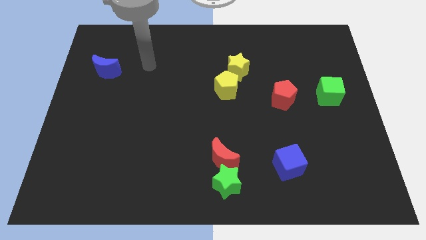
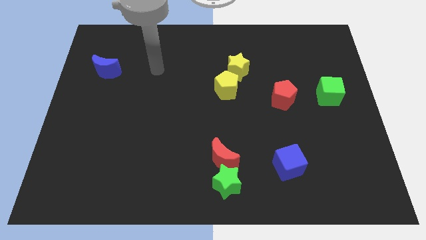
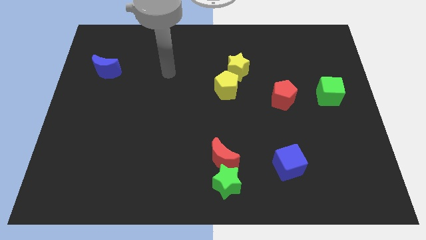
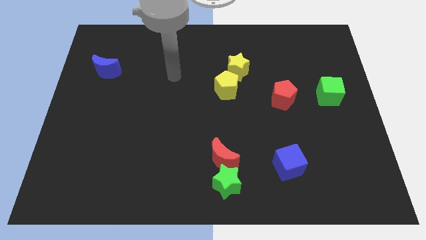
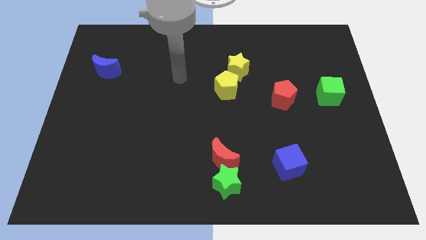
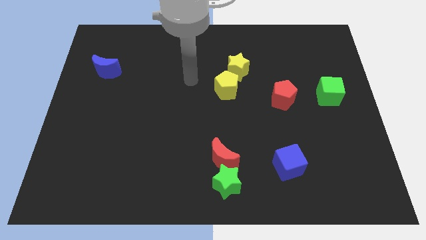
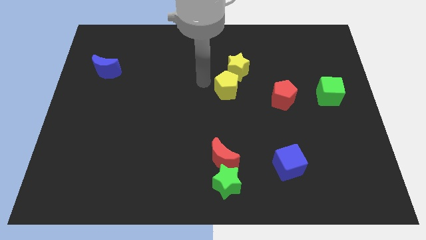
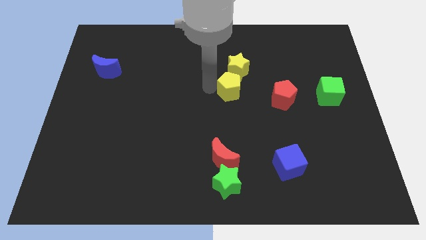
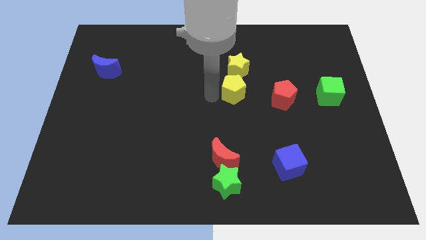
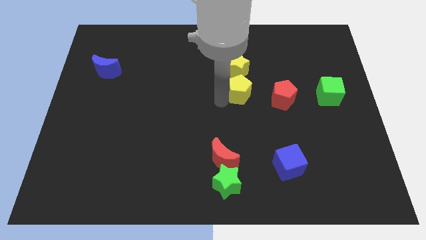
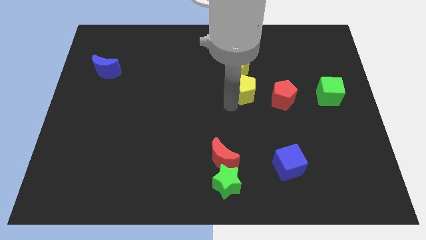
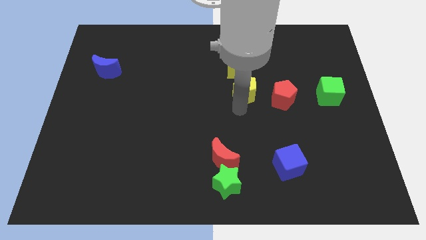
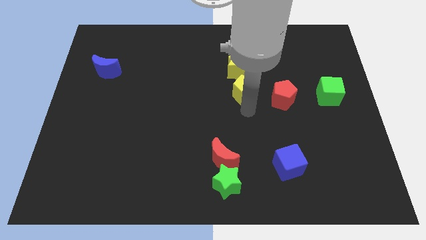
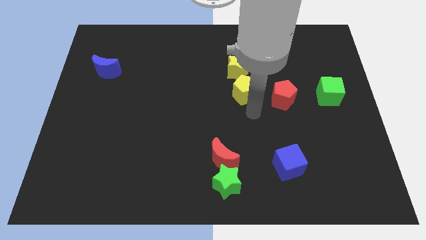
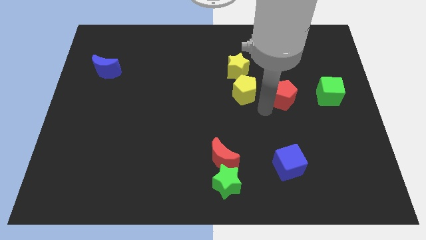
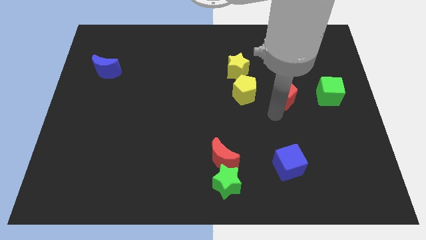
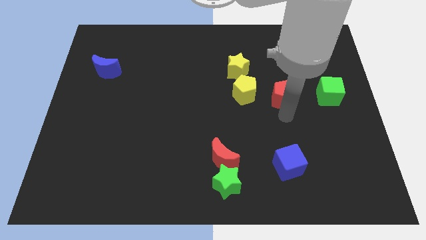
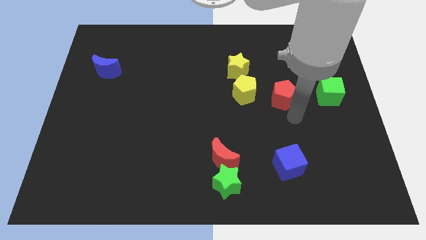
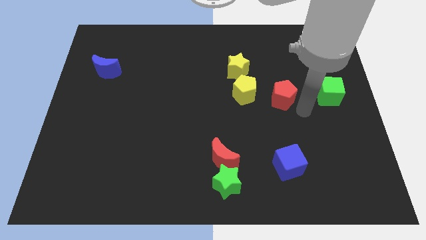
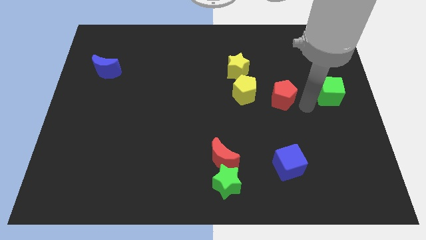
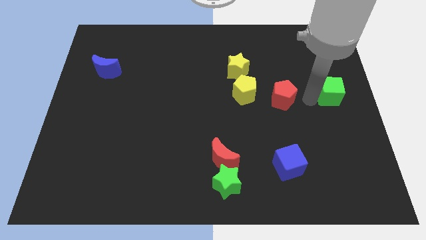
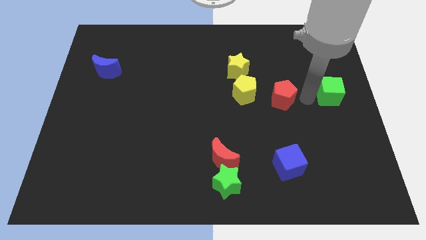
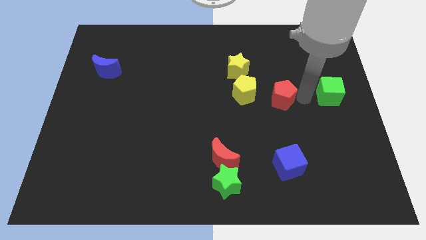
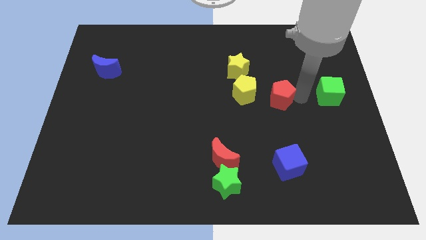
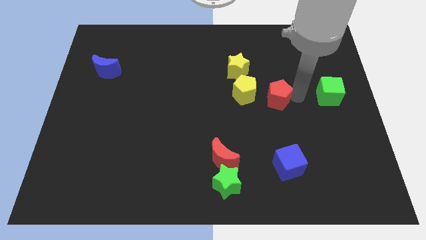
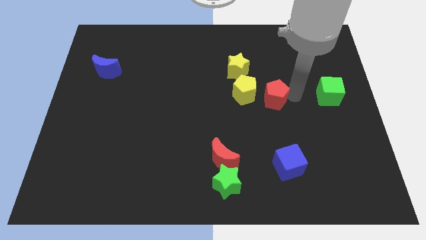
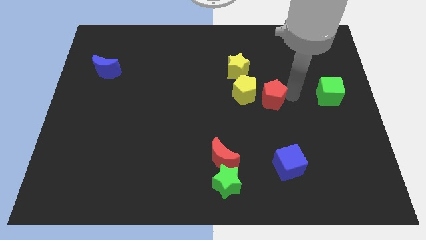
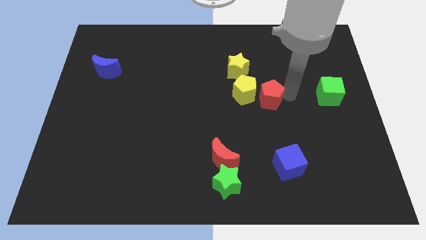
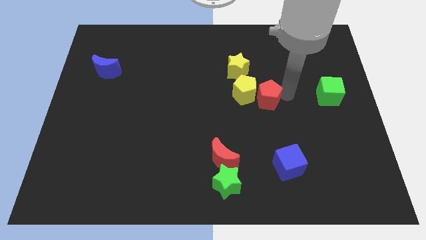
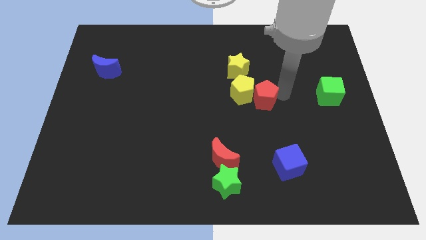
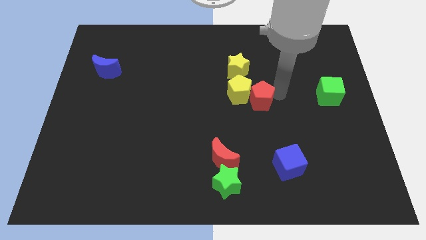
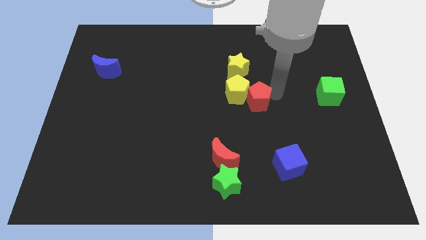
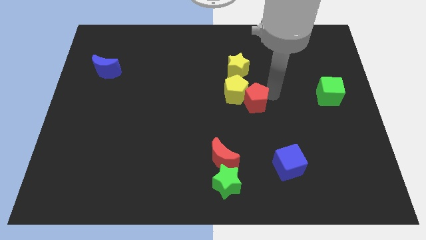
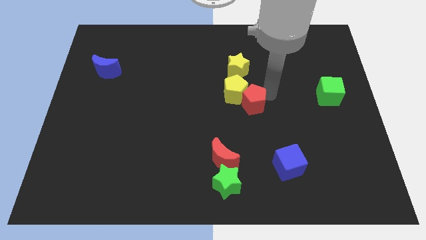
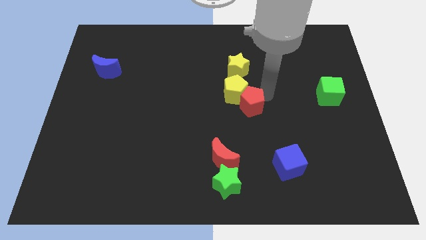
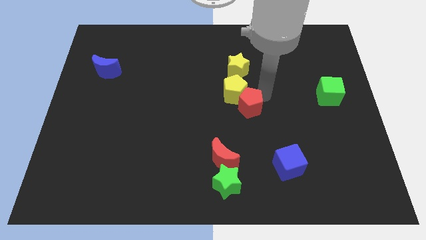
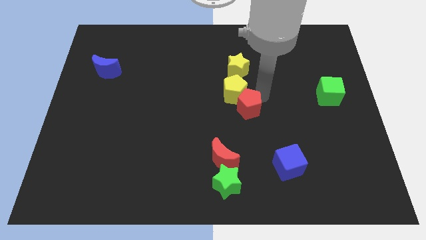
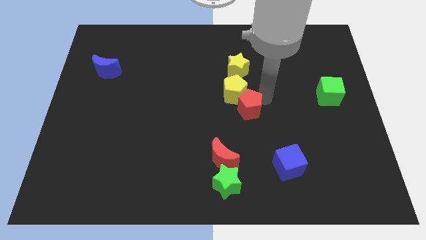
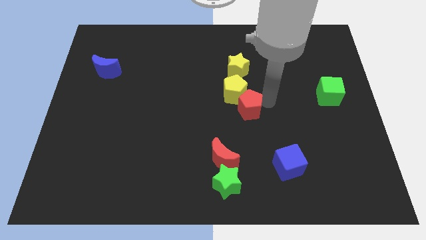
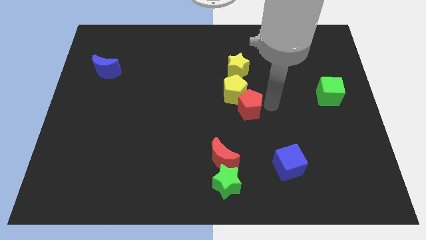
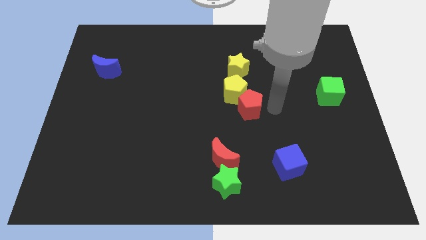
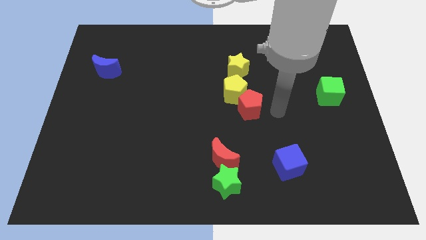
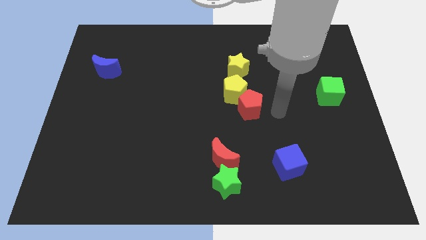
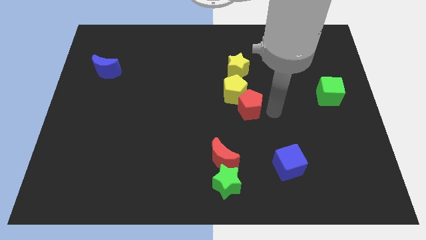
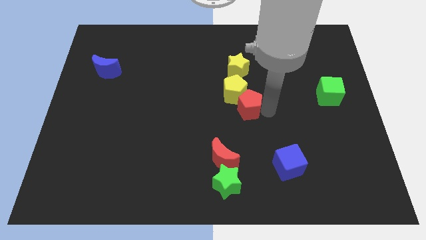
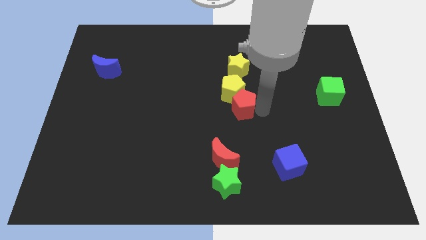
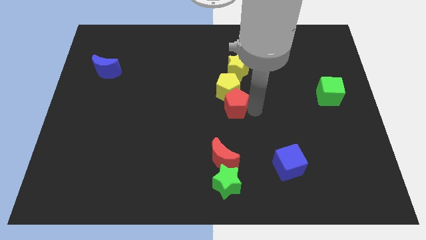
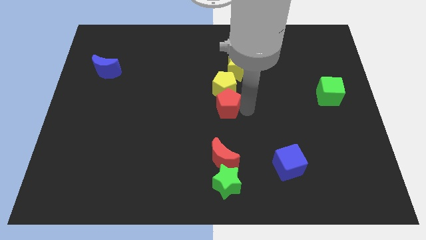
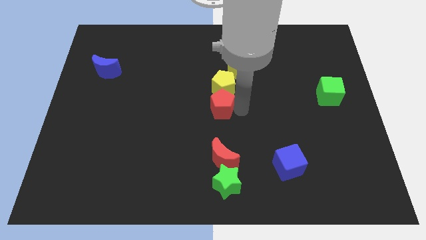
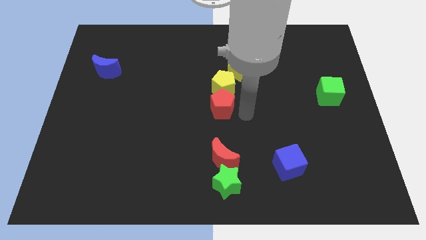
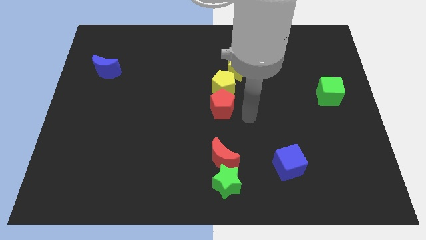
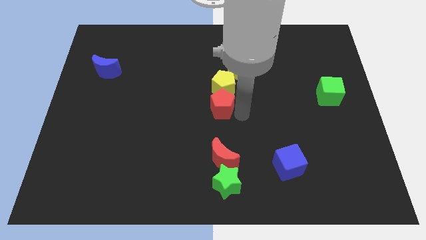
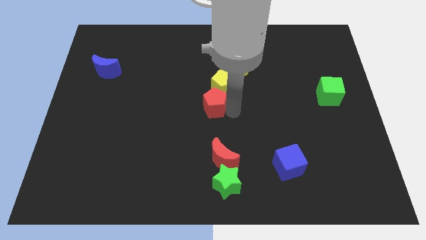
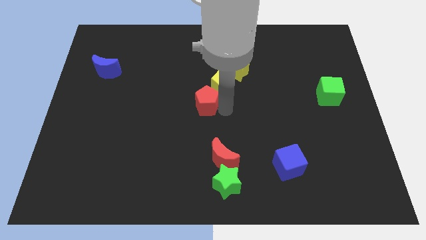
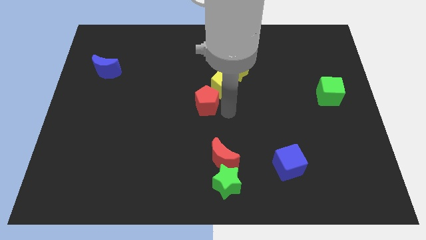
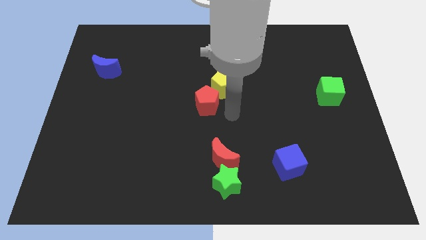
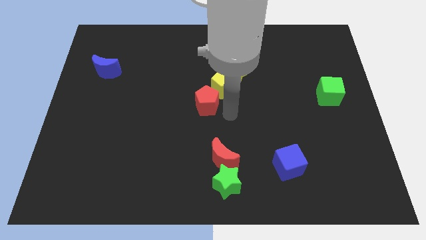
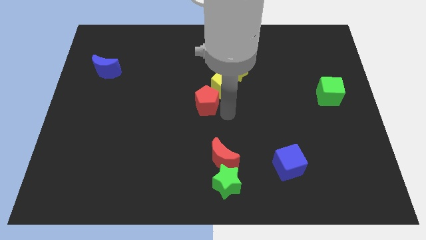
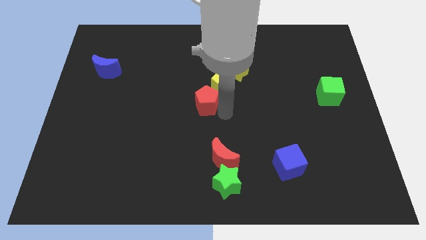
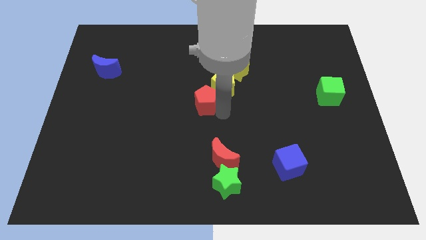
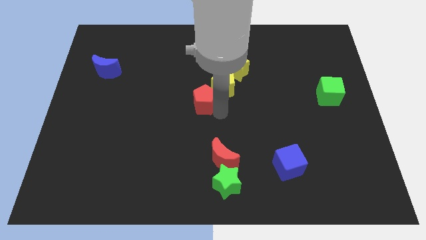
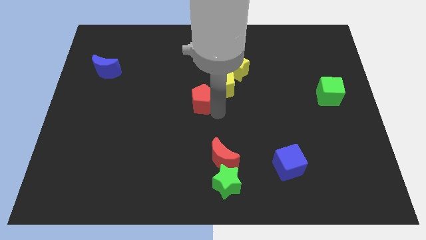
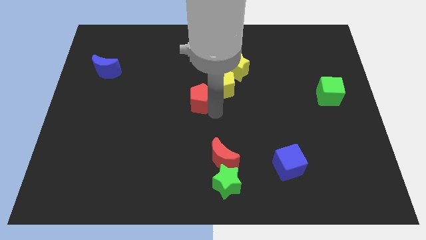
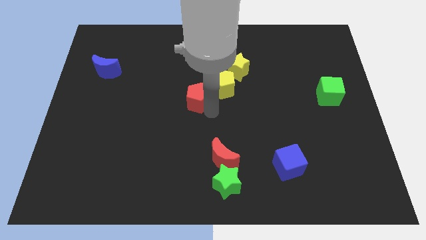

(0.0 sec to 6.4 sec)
push the red pentagon to the left

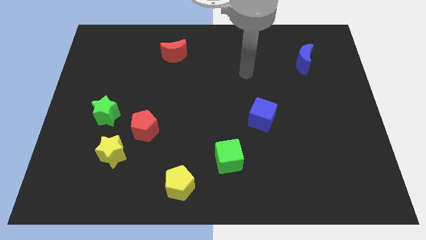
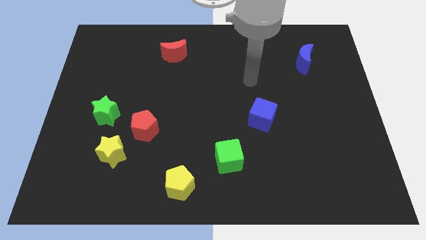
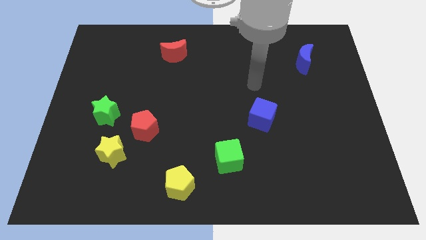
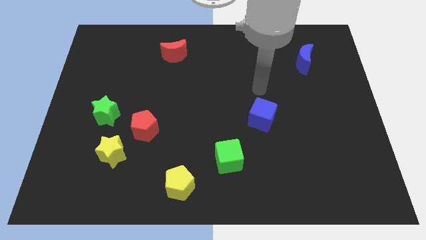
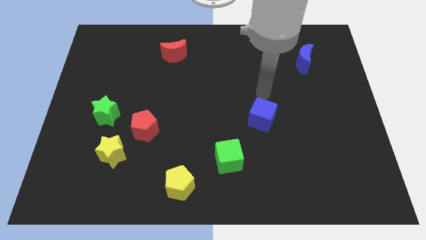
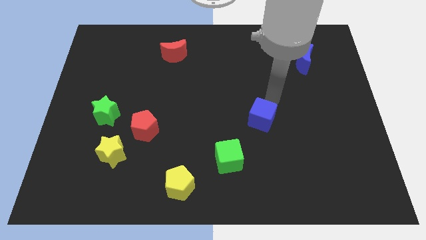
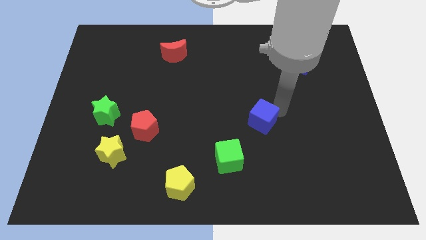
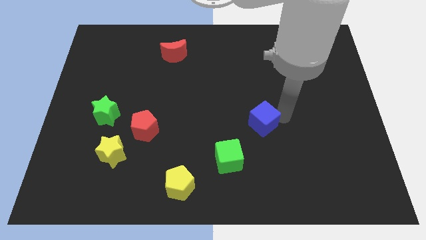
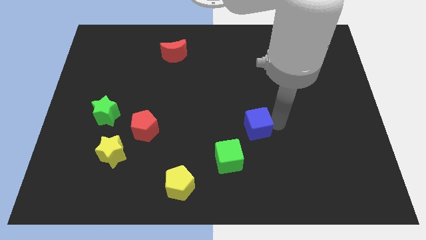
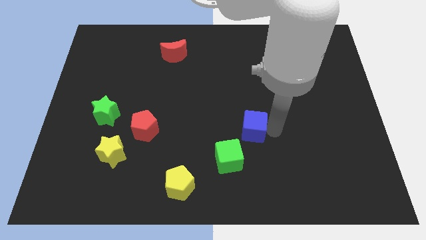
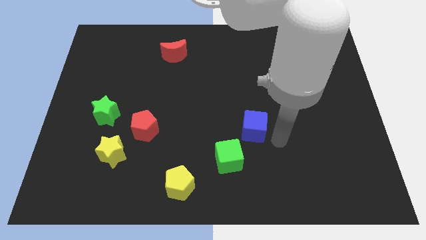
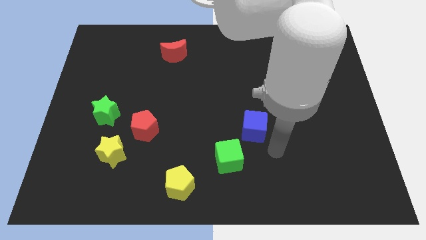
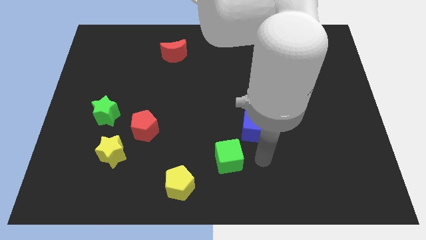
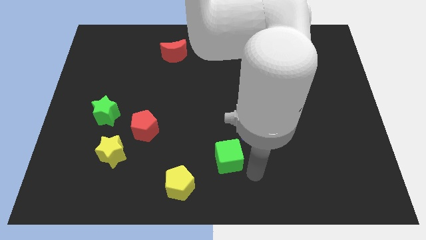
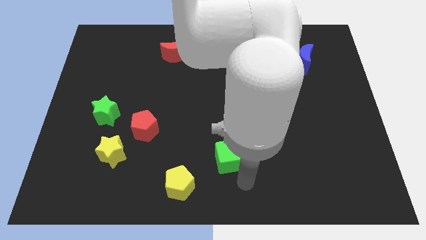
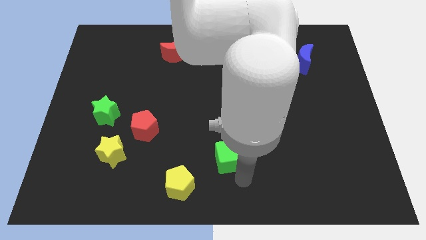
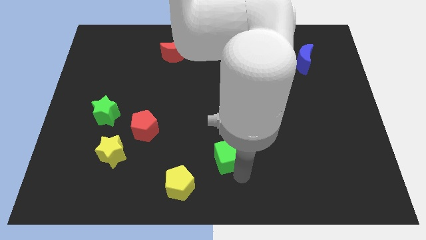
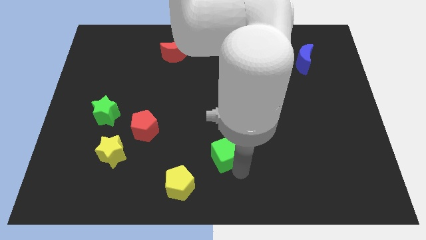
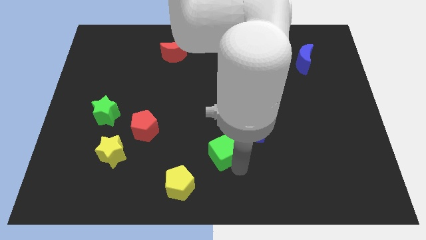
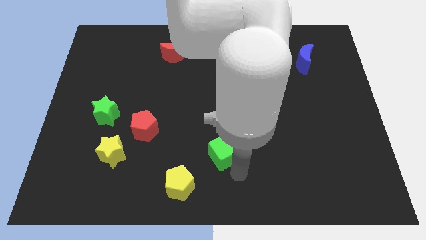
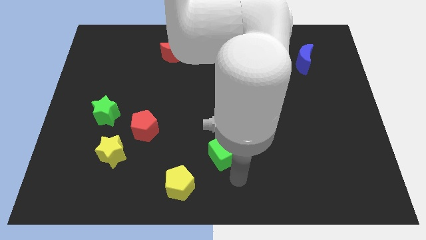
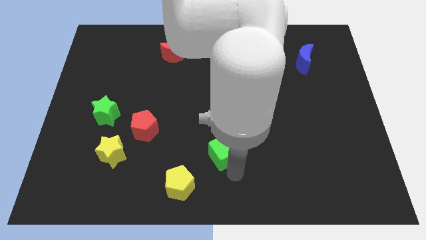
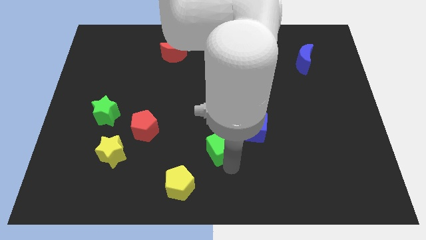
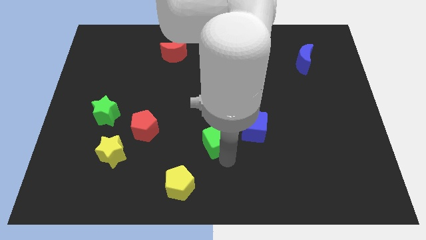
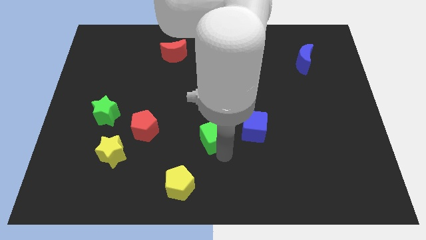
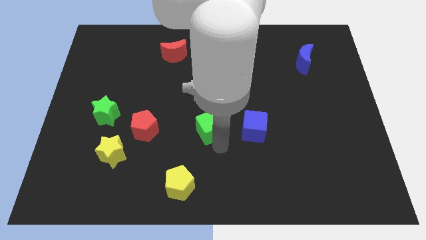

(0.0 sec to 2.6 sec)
push the green cube somewhat diagonally up and left
